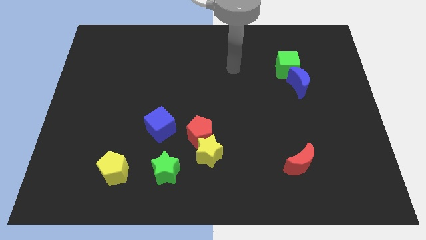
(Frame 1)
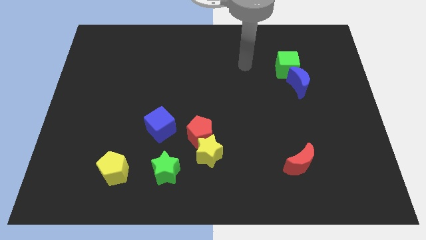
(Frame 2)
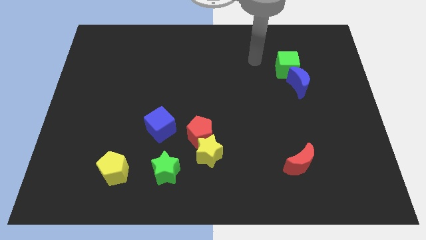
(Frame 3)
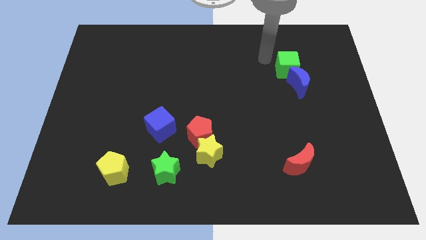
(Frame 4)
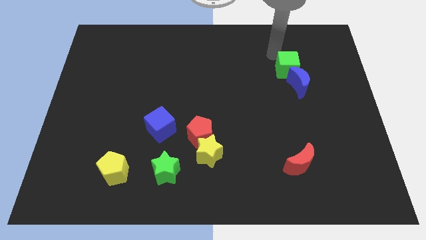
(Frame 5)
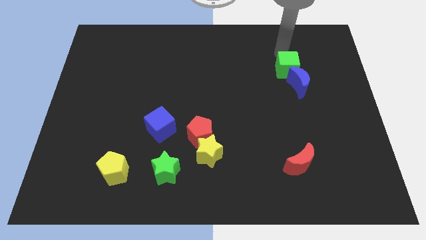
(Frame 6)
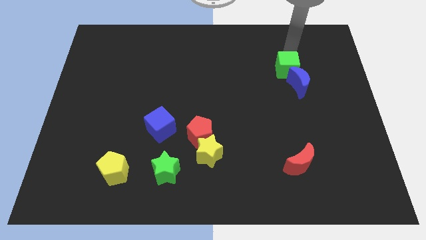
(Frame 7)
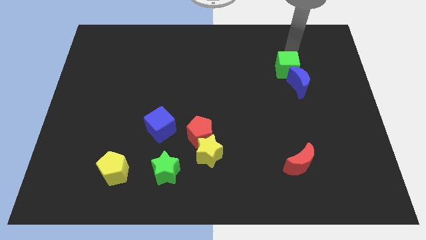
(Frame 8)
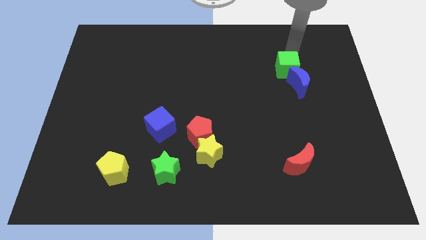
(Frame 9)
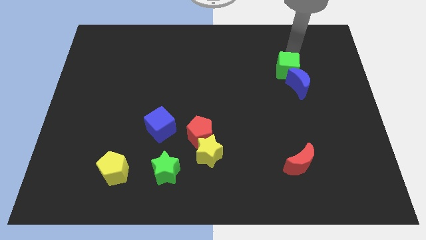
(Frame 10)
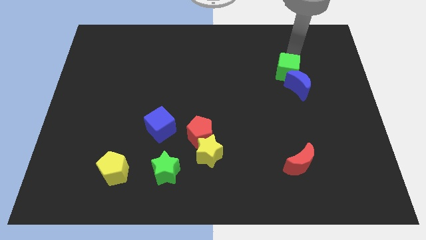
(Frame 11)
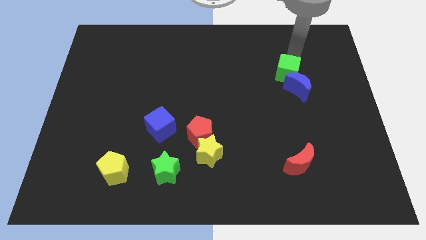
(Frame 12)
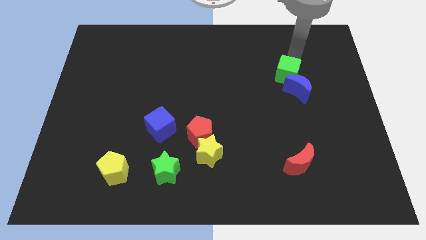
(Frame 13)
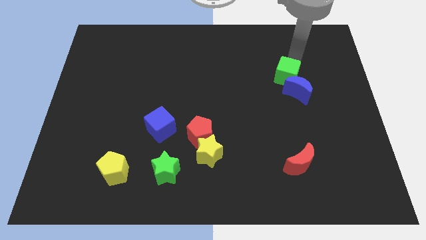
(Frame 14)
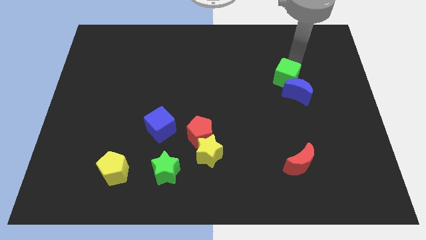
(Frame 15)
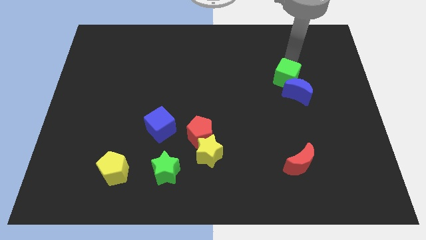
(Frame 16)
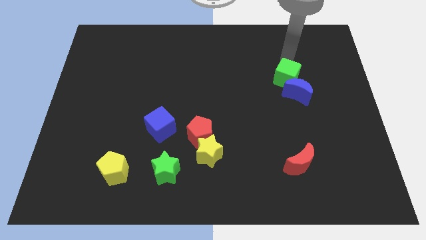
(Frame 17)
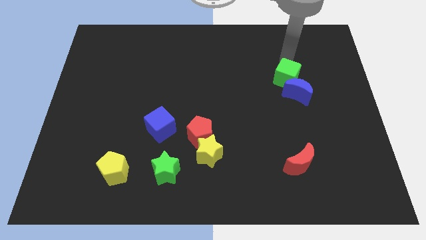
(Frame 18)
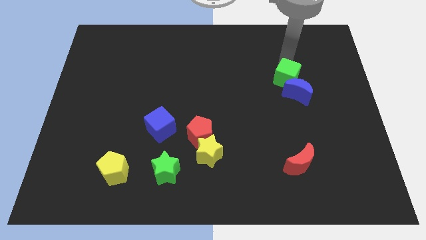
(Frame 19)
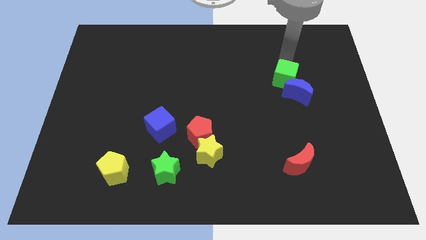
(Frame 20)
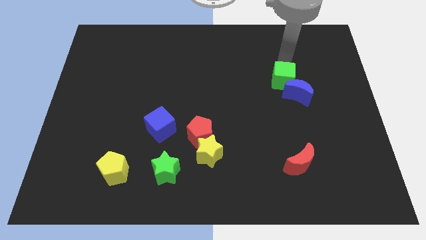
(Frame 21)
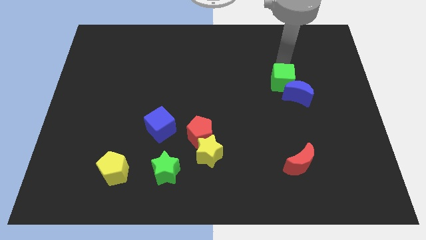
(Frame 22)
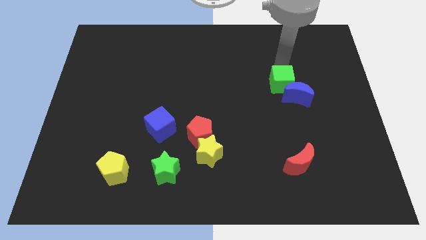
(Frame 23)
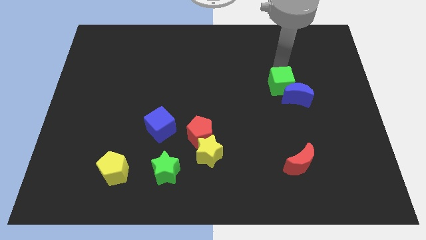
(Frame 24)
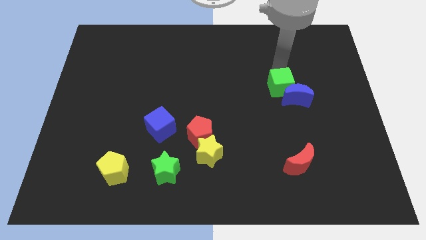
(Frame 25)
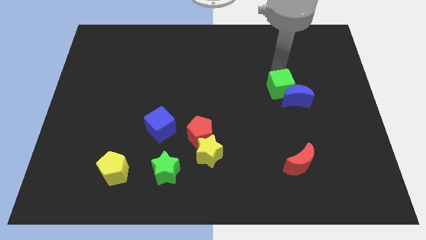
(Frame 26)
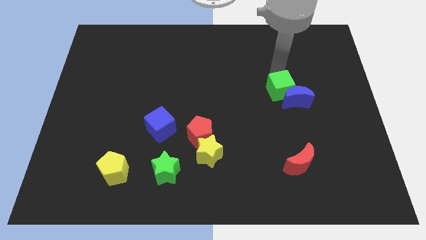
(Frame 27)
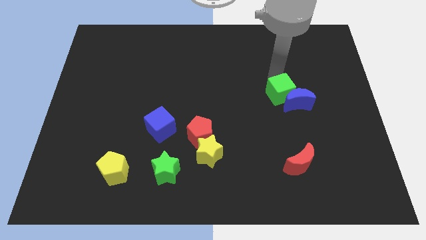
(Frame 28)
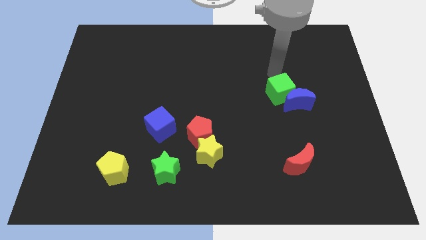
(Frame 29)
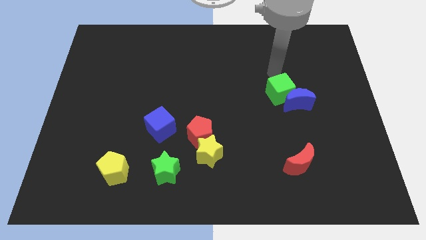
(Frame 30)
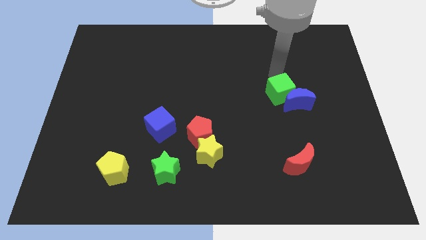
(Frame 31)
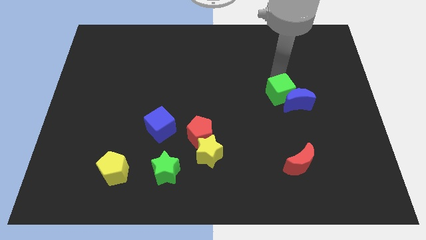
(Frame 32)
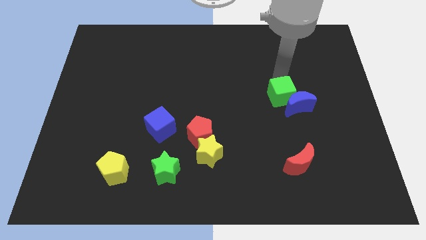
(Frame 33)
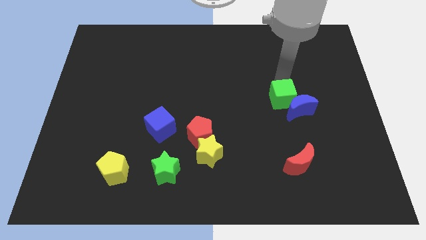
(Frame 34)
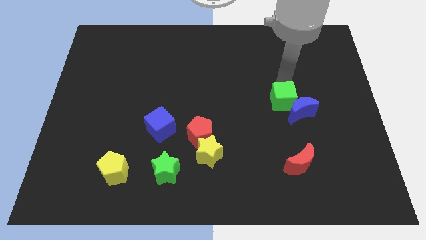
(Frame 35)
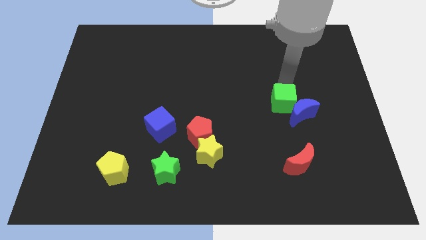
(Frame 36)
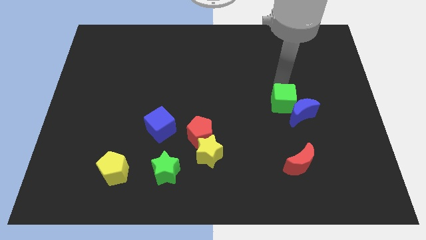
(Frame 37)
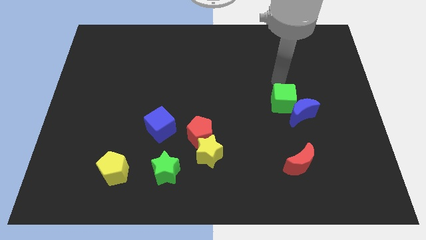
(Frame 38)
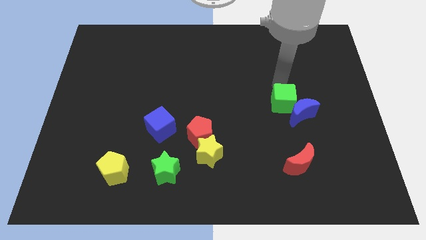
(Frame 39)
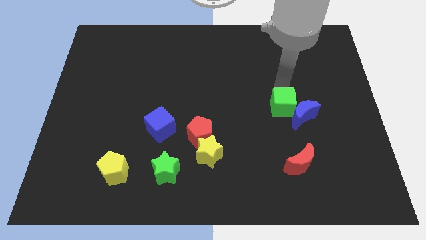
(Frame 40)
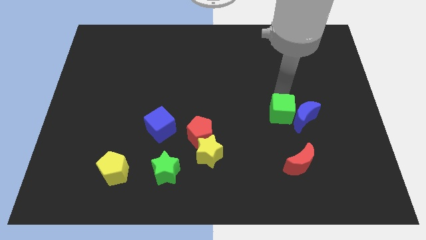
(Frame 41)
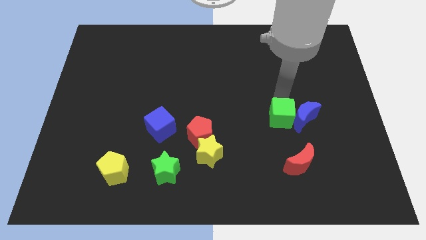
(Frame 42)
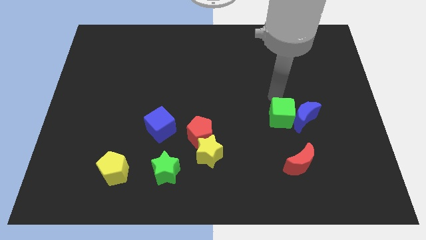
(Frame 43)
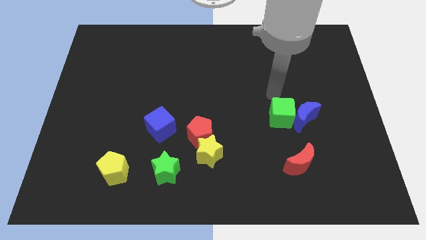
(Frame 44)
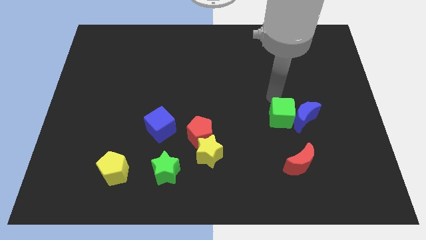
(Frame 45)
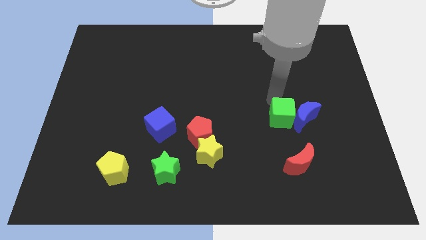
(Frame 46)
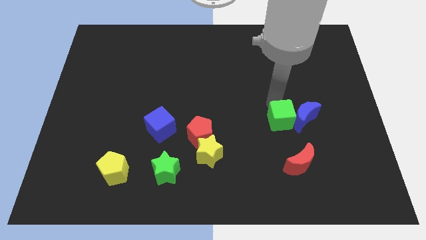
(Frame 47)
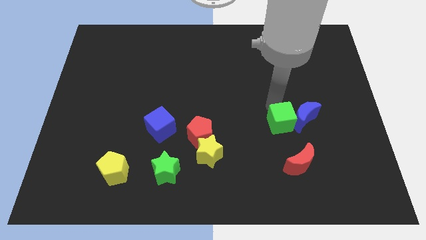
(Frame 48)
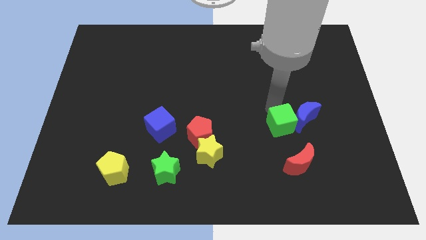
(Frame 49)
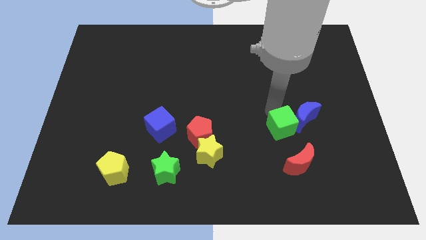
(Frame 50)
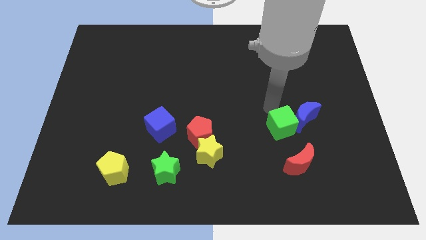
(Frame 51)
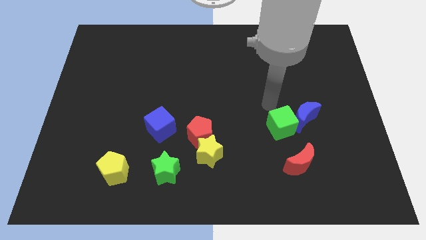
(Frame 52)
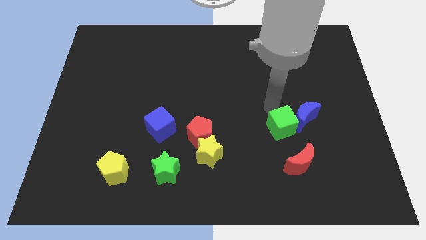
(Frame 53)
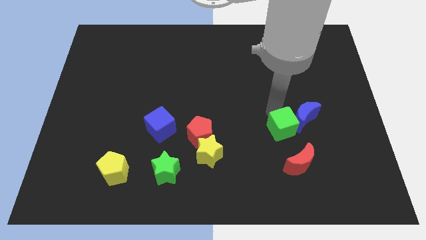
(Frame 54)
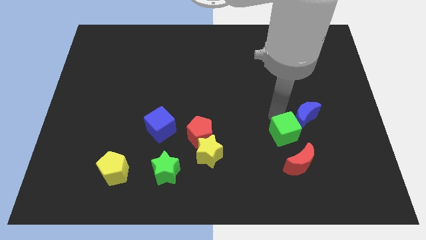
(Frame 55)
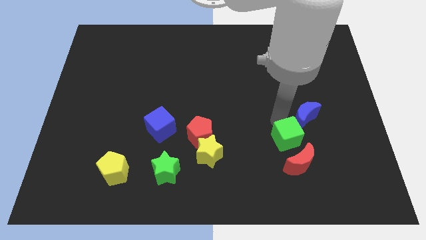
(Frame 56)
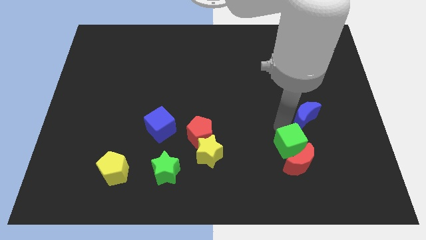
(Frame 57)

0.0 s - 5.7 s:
slide the green cube next to the red moon

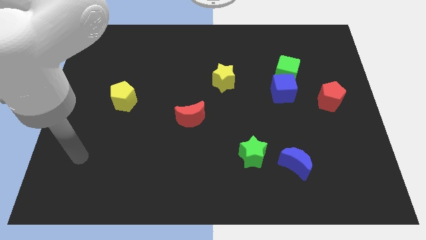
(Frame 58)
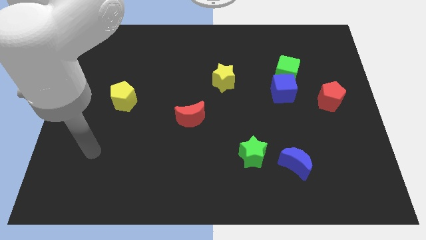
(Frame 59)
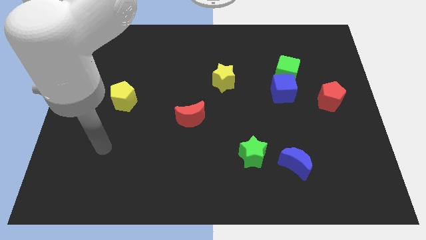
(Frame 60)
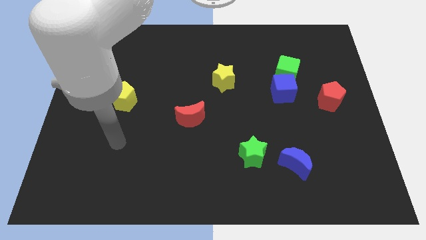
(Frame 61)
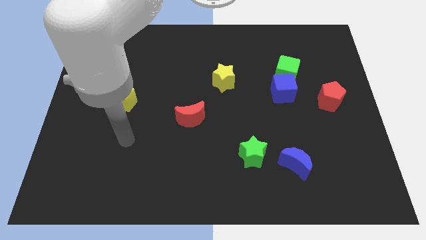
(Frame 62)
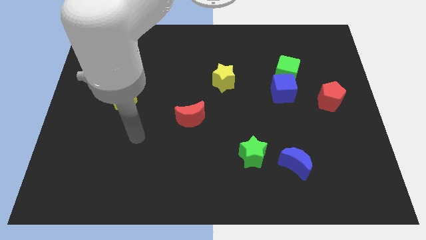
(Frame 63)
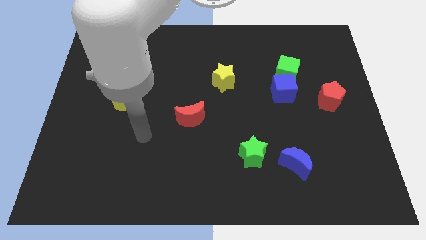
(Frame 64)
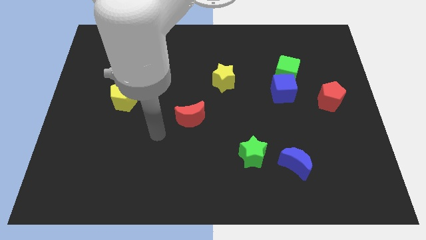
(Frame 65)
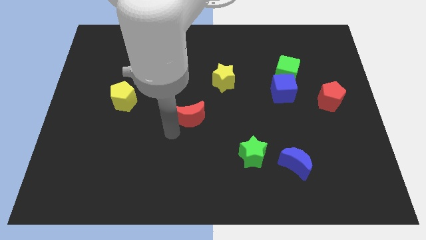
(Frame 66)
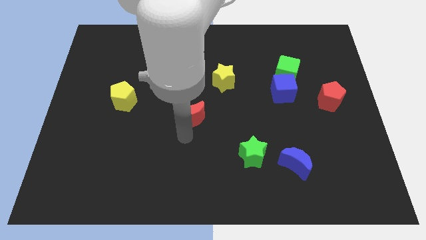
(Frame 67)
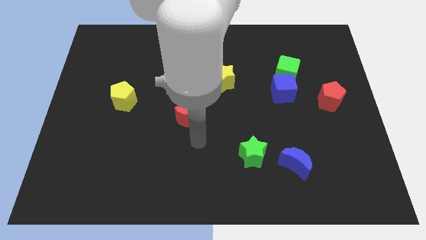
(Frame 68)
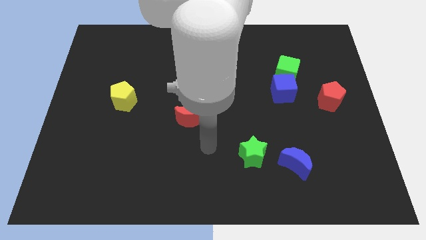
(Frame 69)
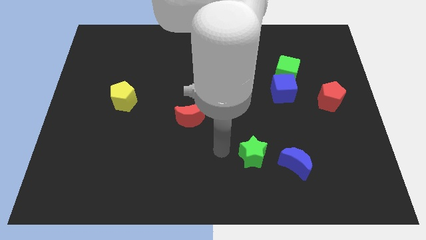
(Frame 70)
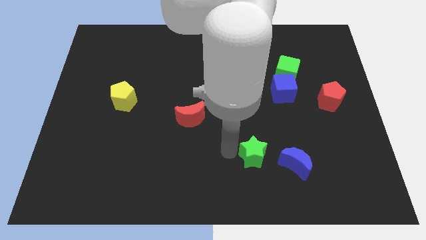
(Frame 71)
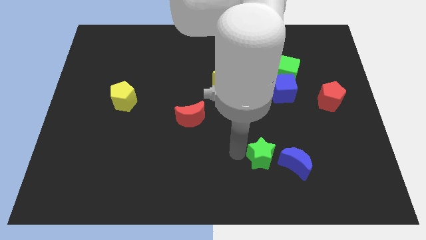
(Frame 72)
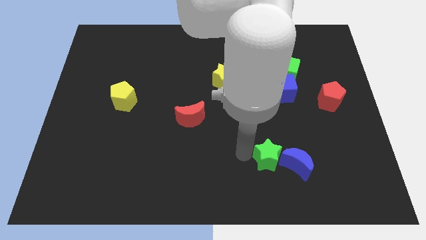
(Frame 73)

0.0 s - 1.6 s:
slide the green star to the blue moon
